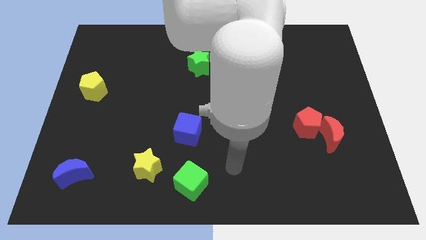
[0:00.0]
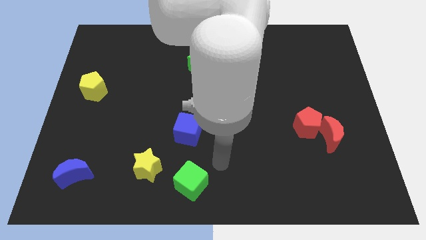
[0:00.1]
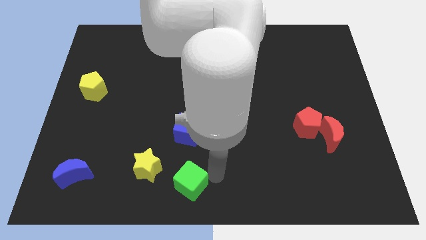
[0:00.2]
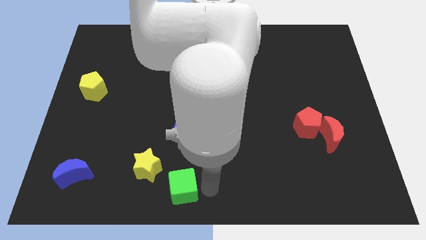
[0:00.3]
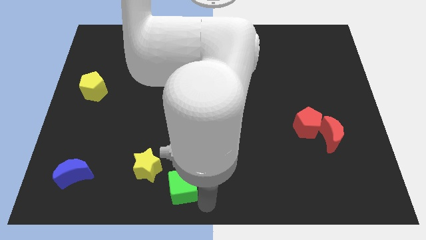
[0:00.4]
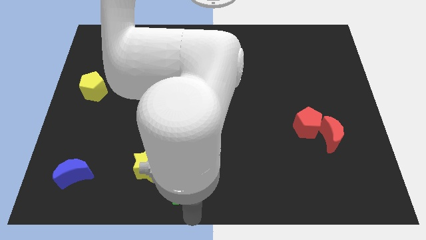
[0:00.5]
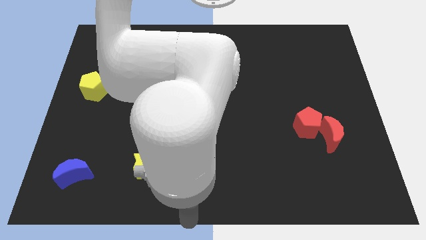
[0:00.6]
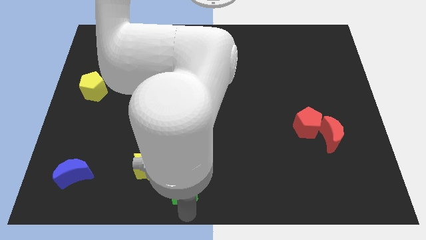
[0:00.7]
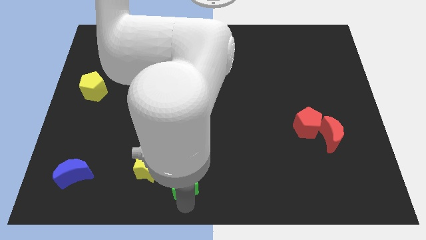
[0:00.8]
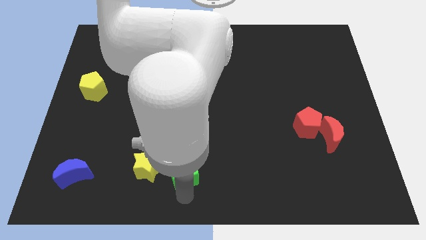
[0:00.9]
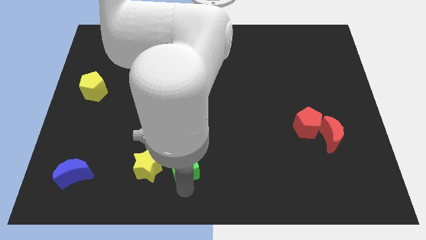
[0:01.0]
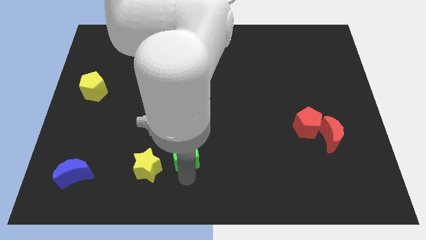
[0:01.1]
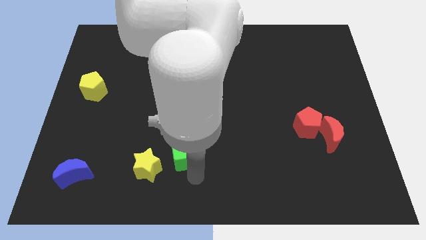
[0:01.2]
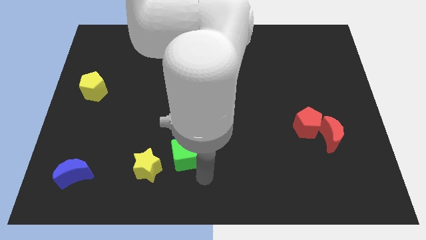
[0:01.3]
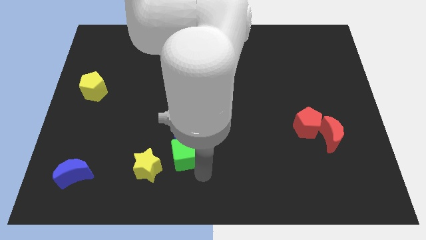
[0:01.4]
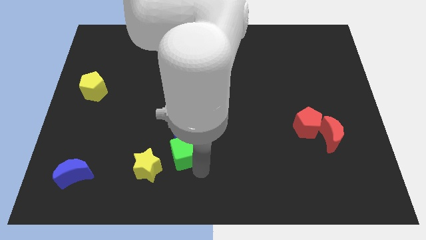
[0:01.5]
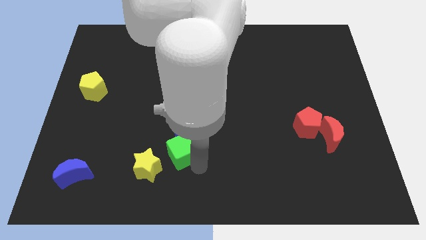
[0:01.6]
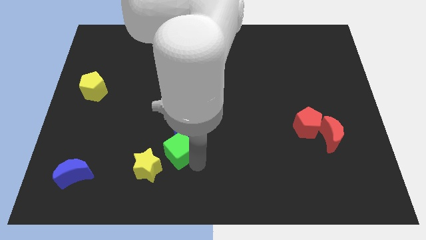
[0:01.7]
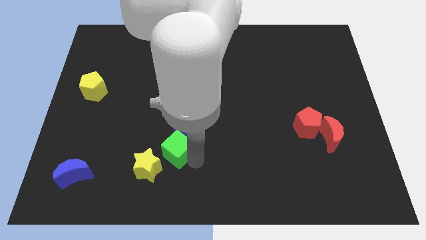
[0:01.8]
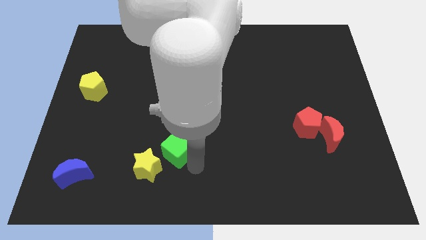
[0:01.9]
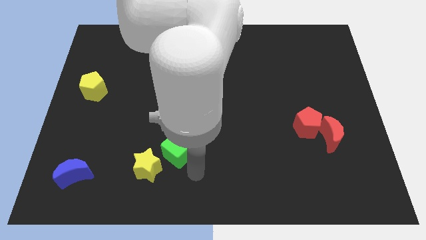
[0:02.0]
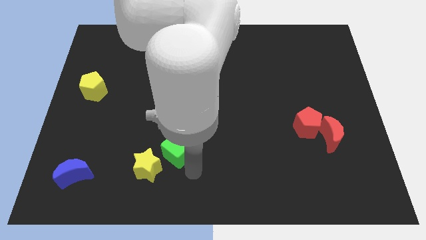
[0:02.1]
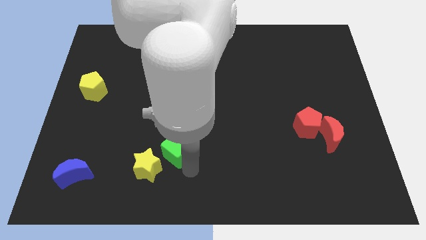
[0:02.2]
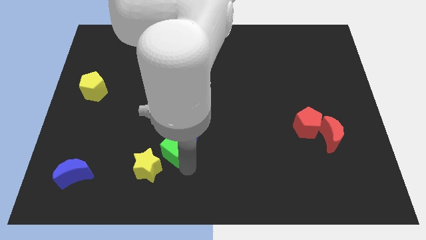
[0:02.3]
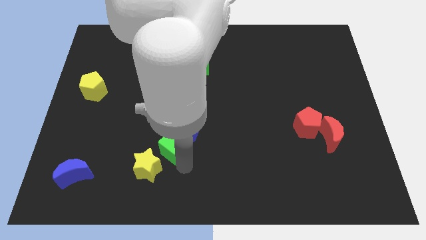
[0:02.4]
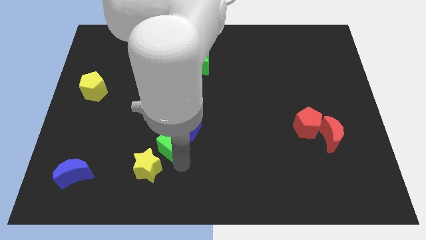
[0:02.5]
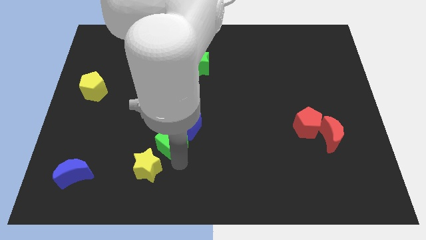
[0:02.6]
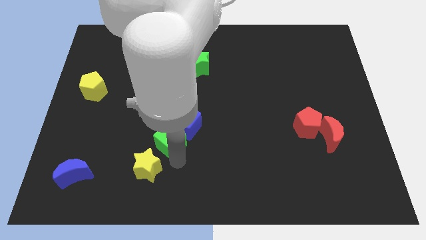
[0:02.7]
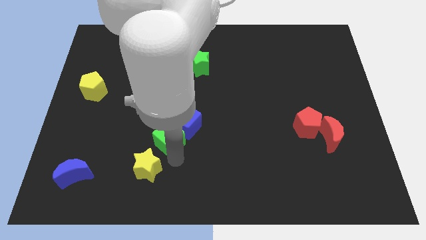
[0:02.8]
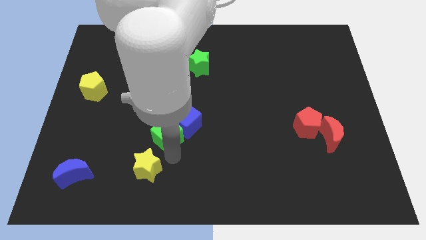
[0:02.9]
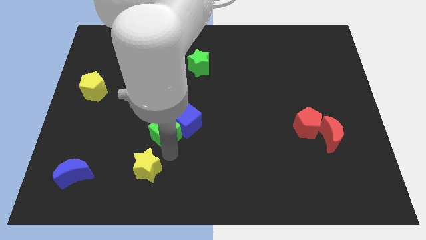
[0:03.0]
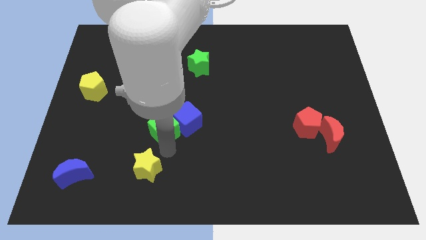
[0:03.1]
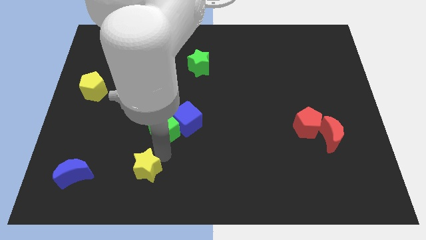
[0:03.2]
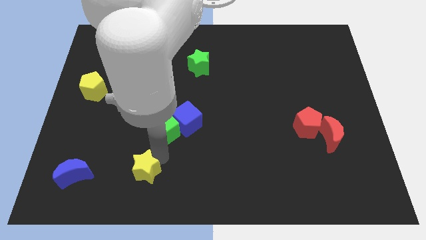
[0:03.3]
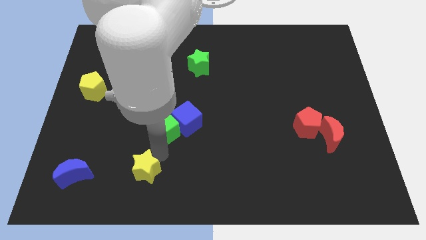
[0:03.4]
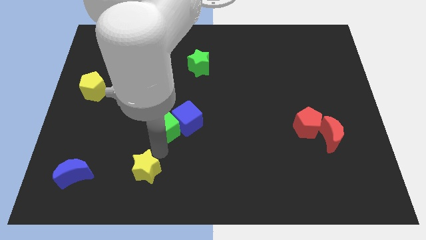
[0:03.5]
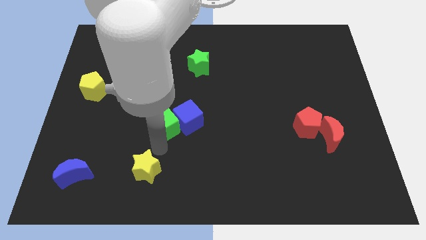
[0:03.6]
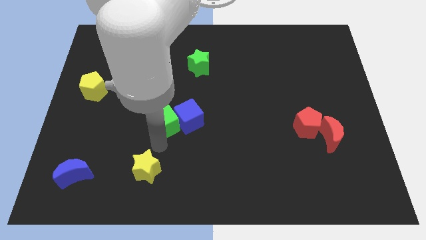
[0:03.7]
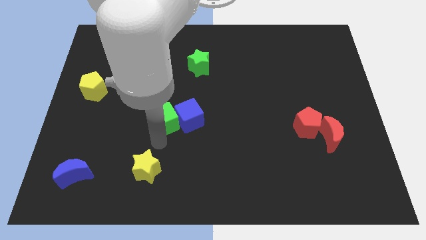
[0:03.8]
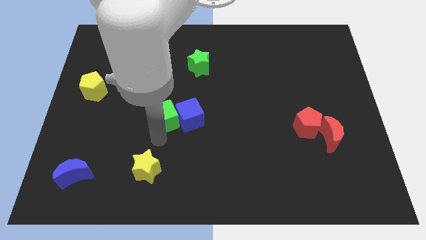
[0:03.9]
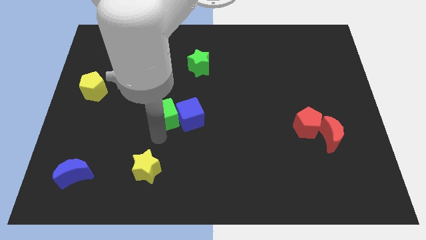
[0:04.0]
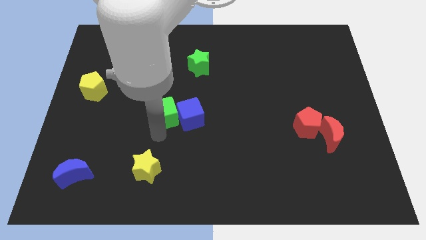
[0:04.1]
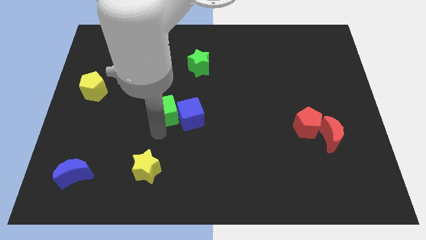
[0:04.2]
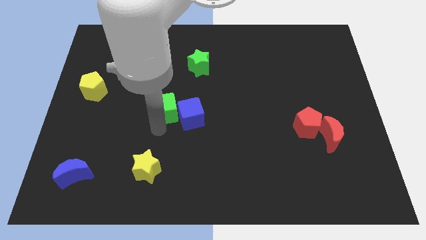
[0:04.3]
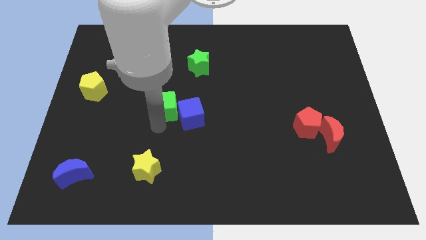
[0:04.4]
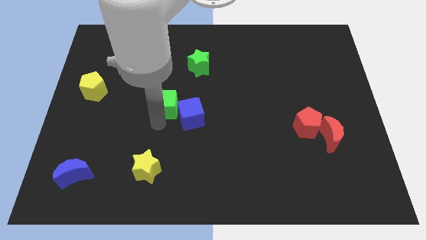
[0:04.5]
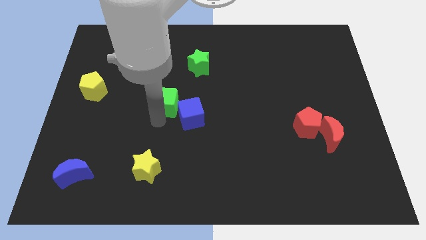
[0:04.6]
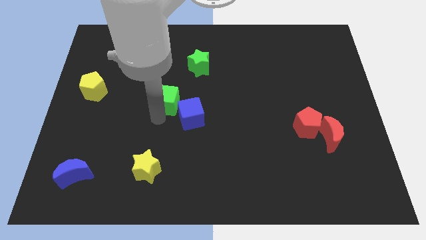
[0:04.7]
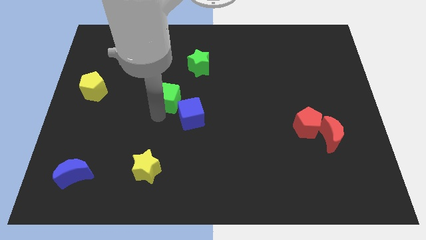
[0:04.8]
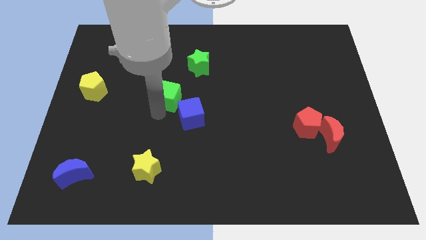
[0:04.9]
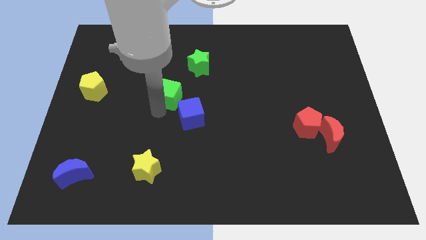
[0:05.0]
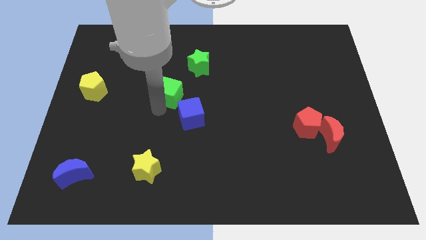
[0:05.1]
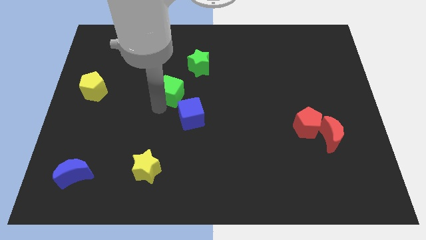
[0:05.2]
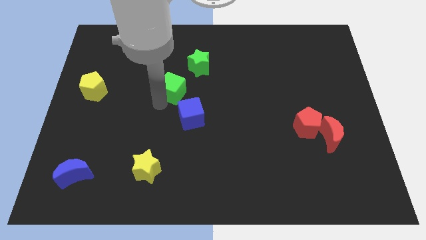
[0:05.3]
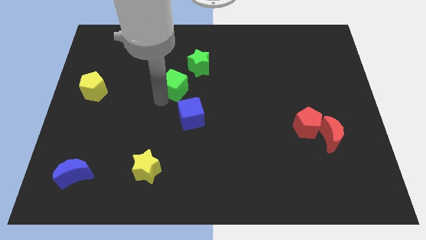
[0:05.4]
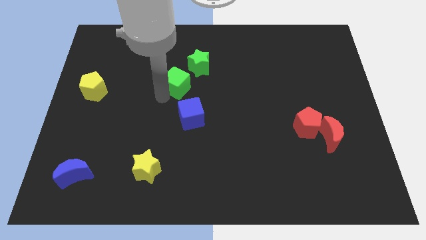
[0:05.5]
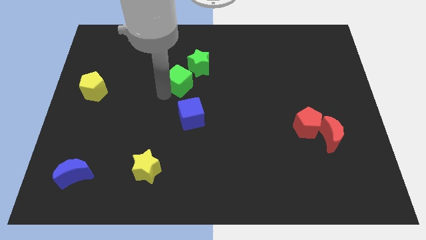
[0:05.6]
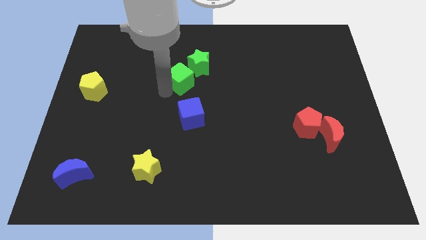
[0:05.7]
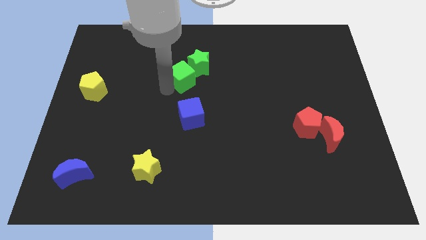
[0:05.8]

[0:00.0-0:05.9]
put the green cube next to the green star

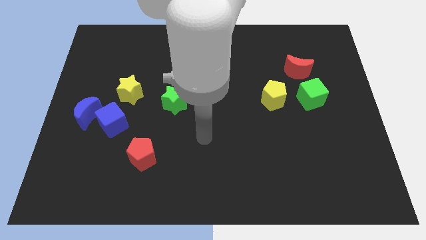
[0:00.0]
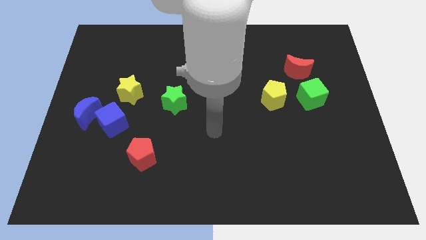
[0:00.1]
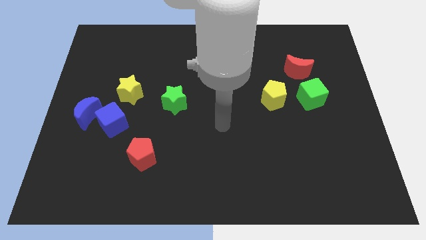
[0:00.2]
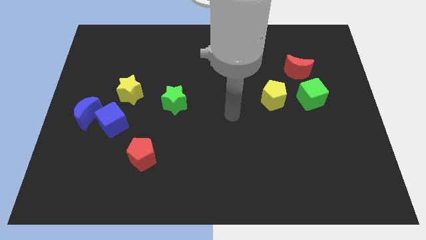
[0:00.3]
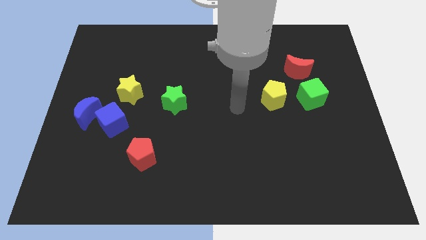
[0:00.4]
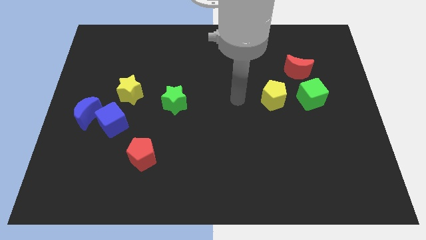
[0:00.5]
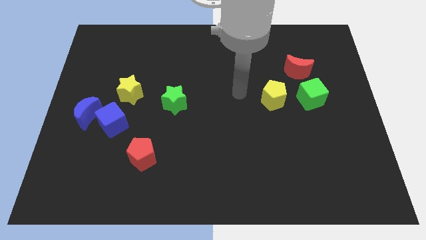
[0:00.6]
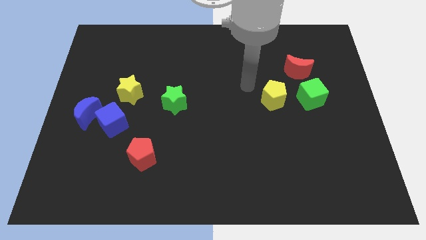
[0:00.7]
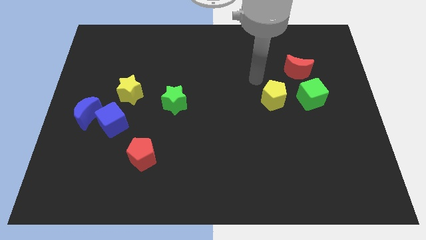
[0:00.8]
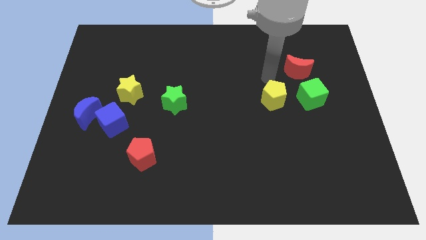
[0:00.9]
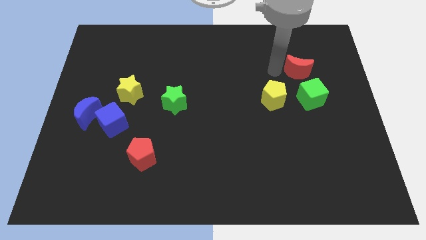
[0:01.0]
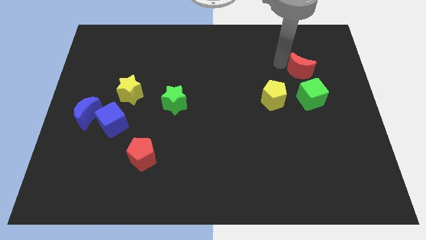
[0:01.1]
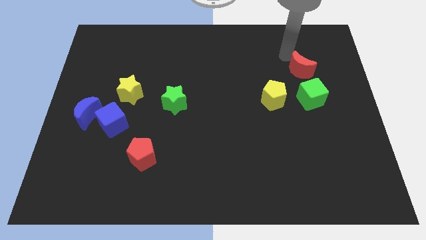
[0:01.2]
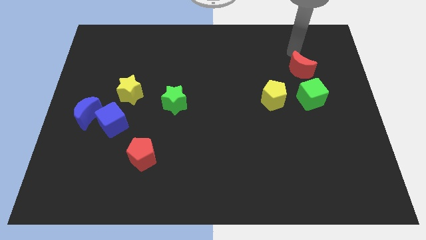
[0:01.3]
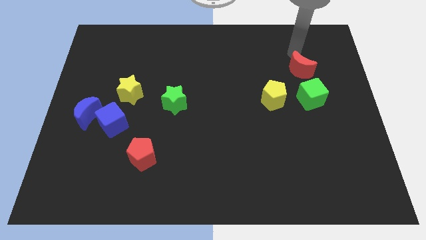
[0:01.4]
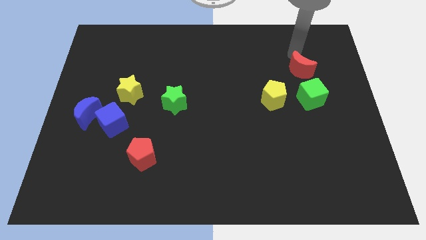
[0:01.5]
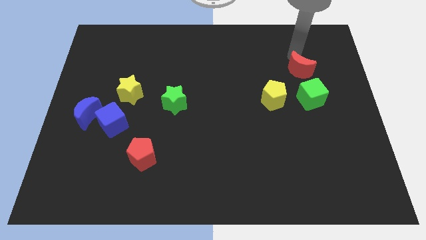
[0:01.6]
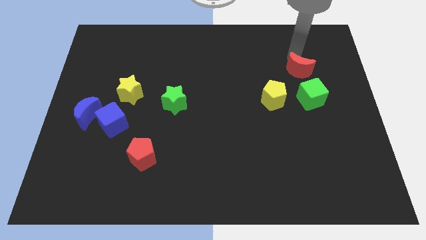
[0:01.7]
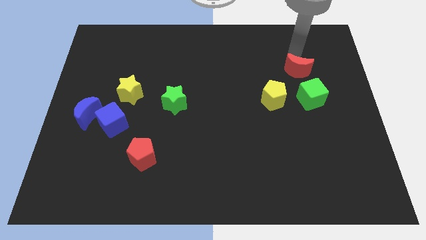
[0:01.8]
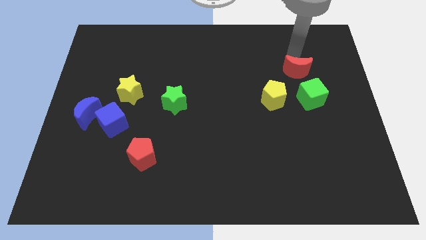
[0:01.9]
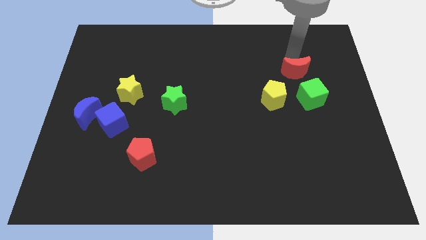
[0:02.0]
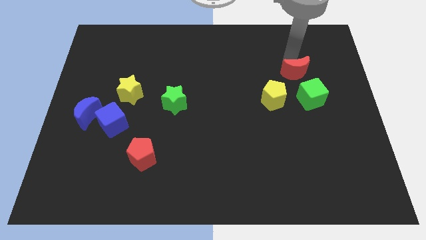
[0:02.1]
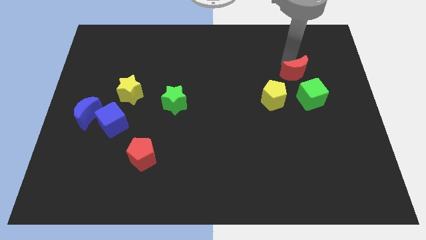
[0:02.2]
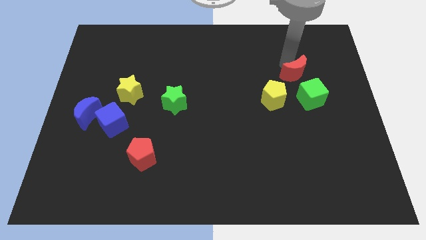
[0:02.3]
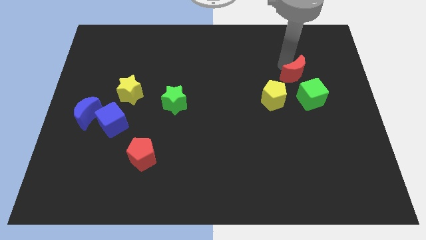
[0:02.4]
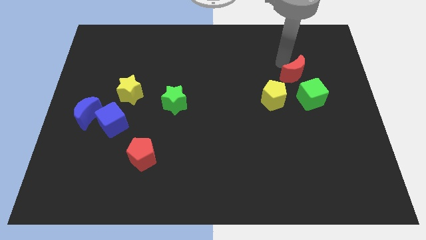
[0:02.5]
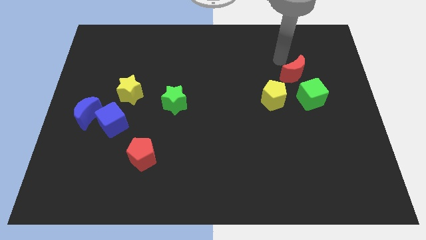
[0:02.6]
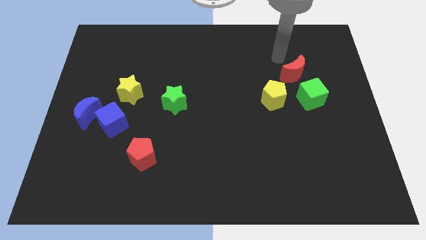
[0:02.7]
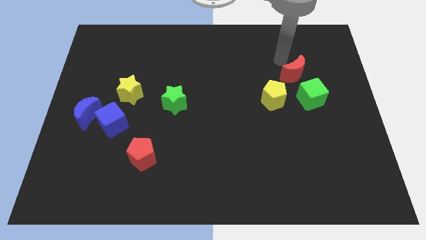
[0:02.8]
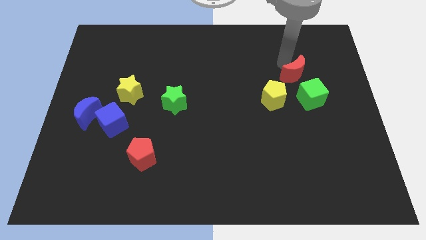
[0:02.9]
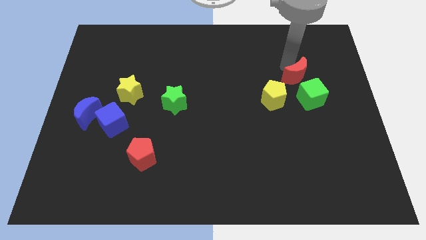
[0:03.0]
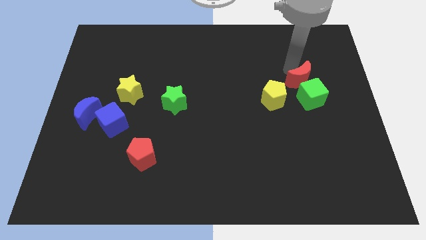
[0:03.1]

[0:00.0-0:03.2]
push the red moon close to the green cube
